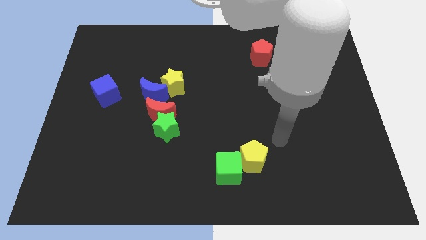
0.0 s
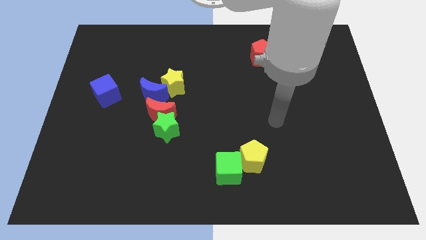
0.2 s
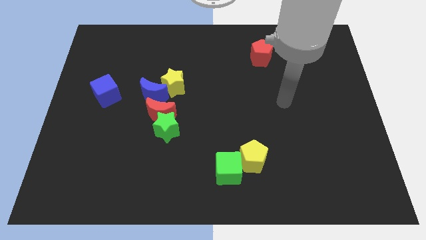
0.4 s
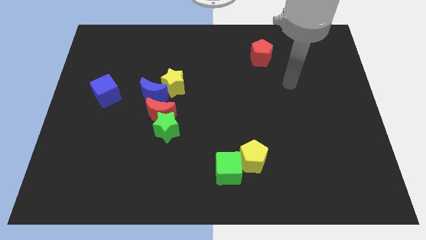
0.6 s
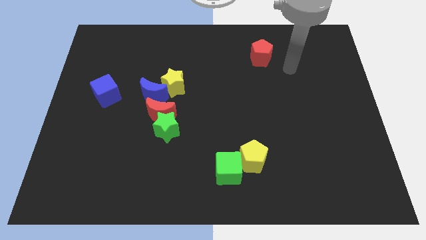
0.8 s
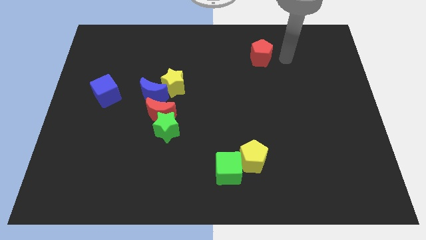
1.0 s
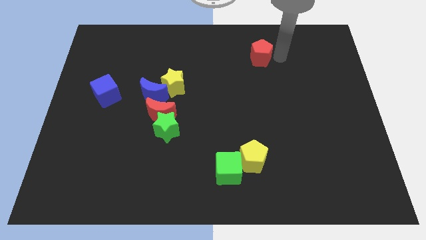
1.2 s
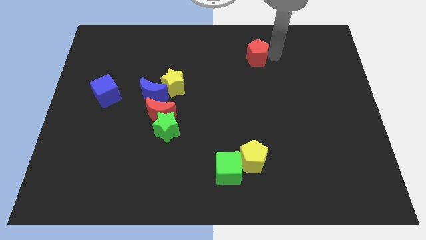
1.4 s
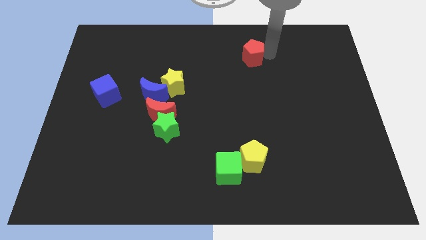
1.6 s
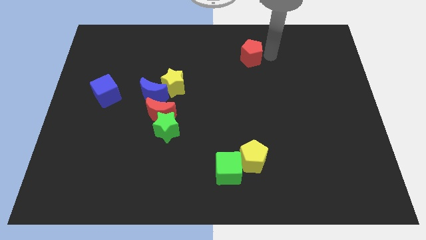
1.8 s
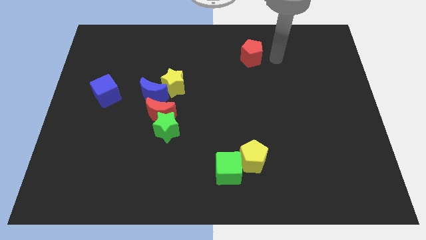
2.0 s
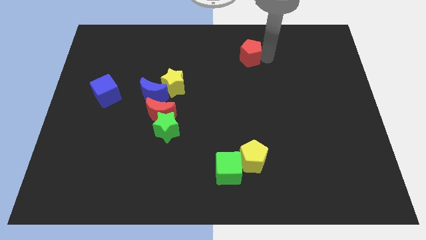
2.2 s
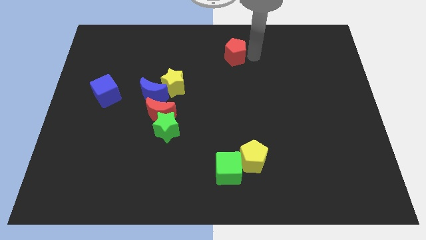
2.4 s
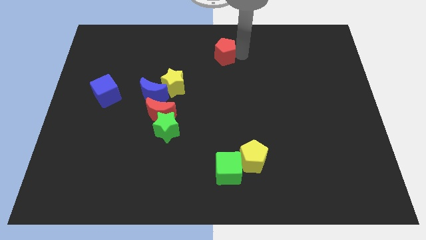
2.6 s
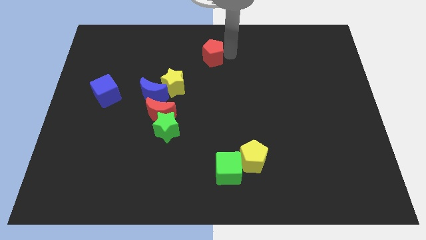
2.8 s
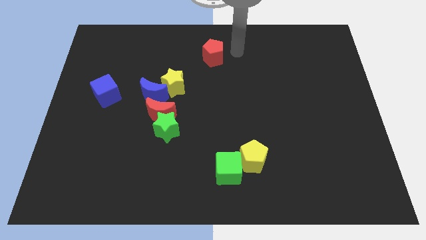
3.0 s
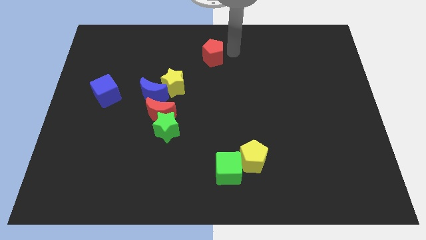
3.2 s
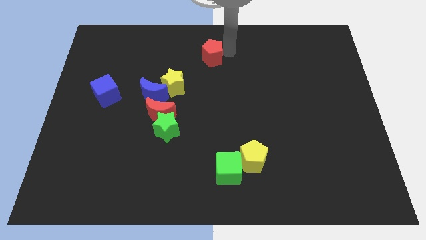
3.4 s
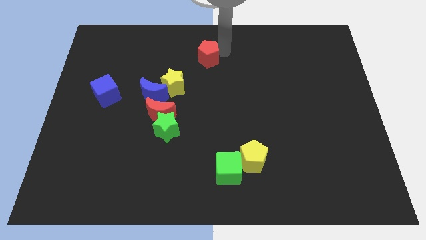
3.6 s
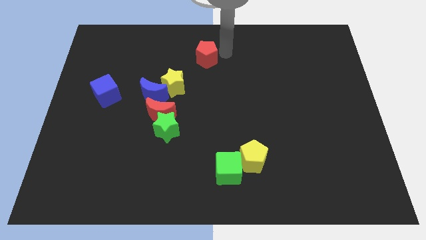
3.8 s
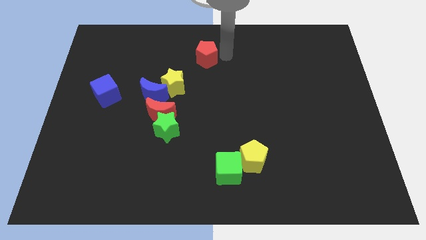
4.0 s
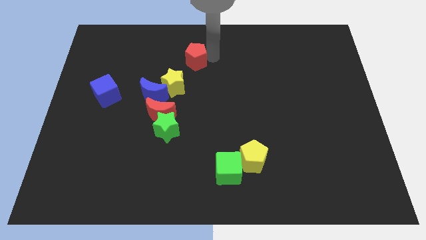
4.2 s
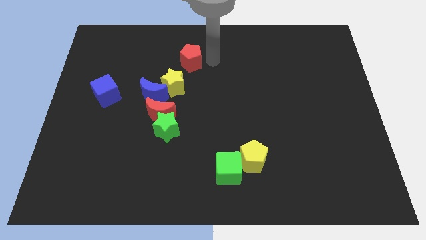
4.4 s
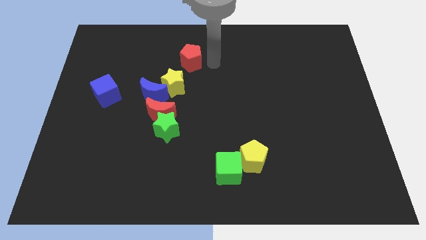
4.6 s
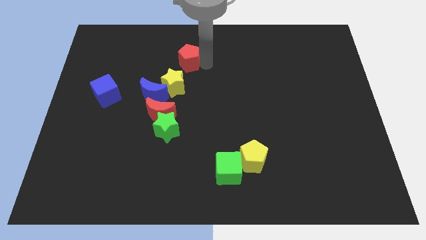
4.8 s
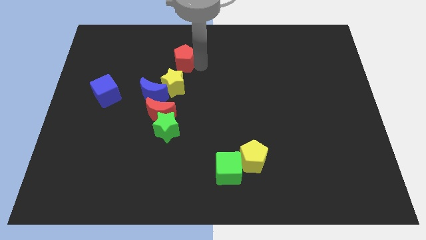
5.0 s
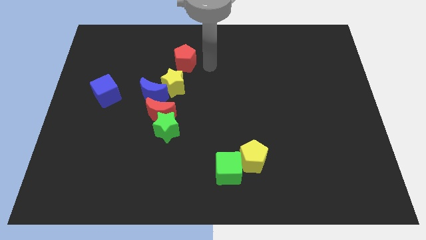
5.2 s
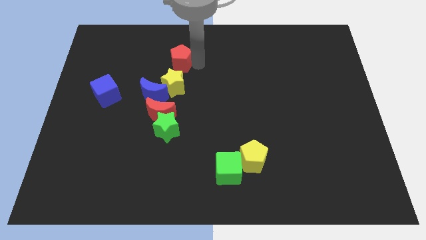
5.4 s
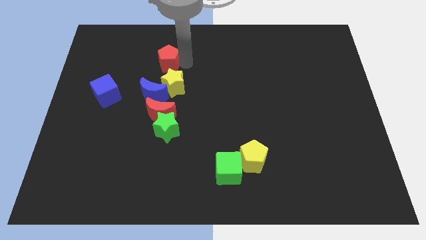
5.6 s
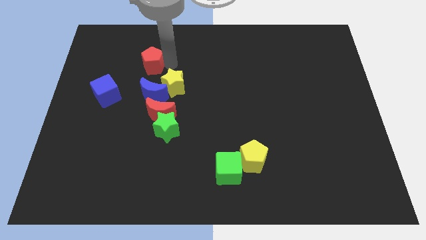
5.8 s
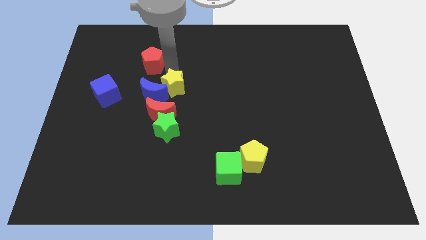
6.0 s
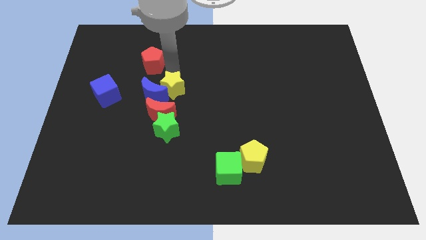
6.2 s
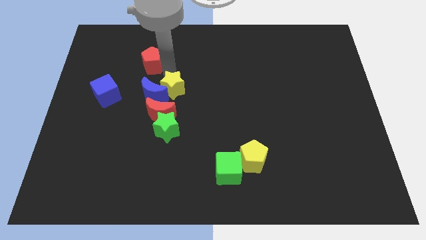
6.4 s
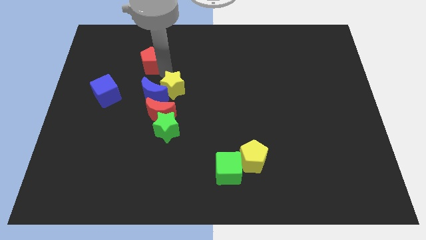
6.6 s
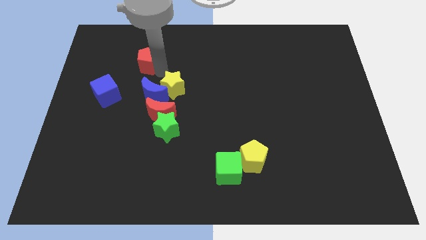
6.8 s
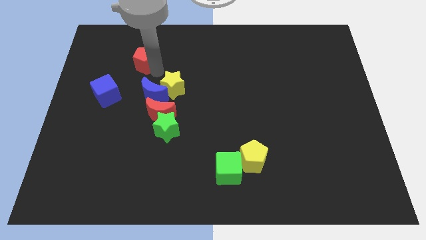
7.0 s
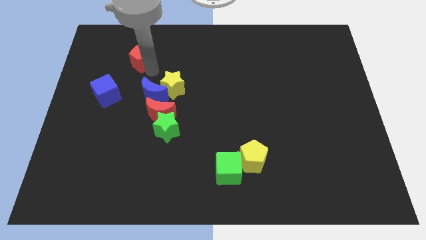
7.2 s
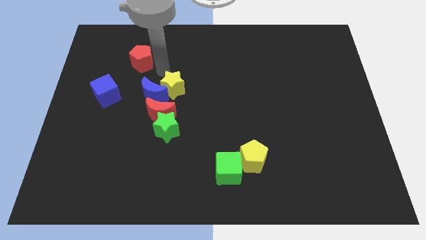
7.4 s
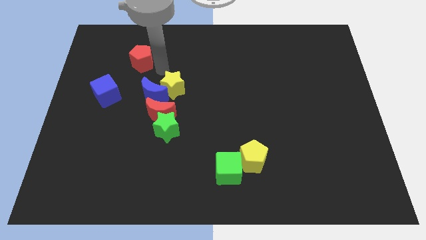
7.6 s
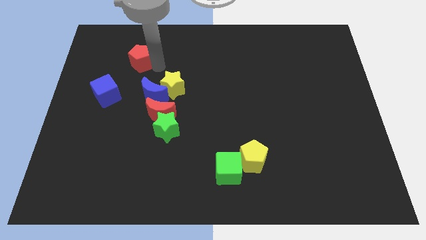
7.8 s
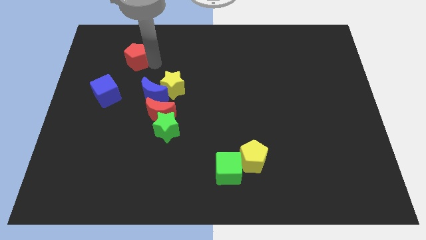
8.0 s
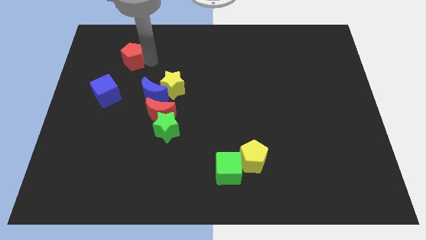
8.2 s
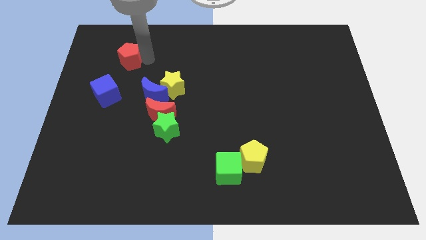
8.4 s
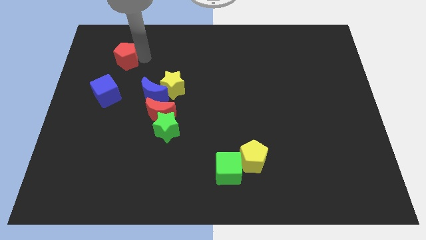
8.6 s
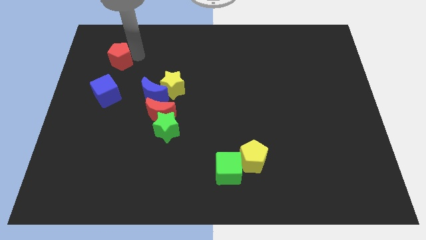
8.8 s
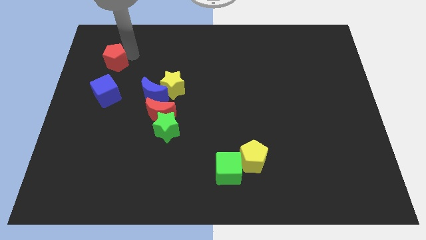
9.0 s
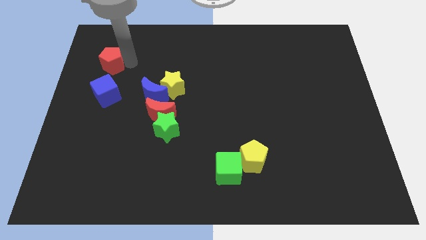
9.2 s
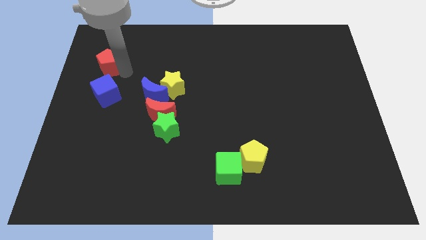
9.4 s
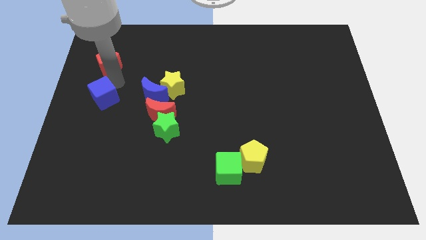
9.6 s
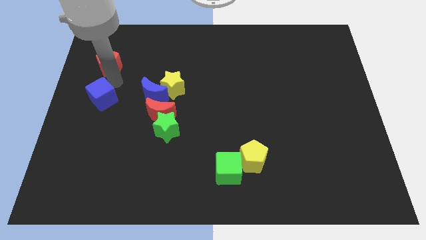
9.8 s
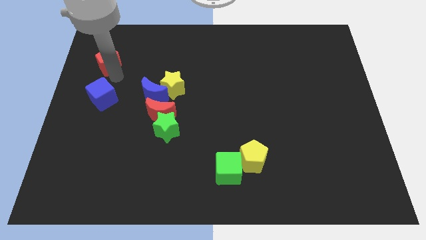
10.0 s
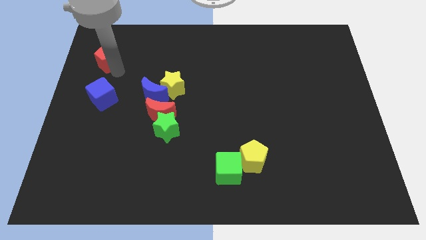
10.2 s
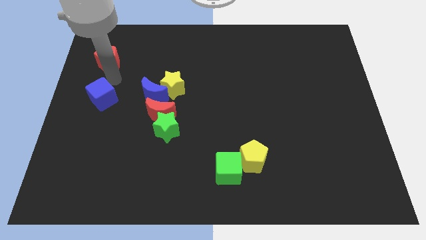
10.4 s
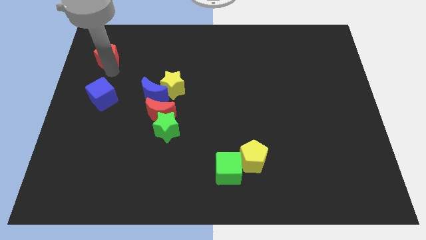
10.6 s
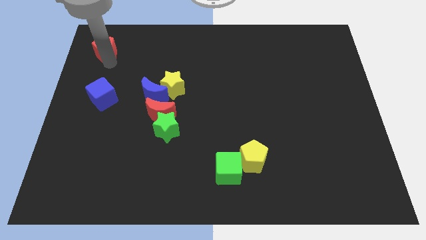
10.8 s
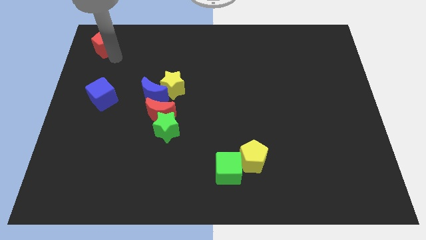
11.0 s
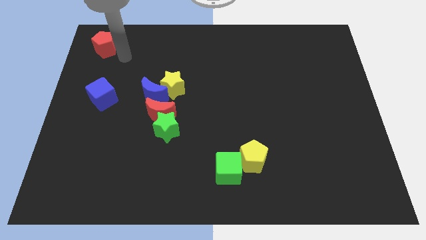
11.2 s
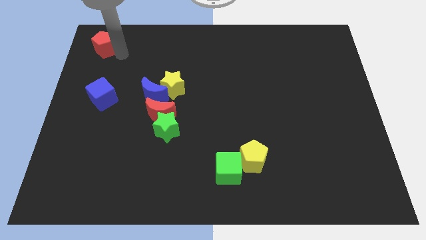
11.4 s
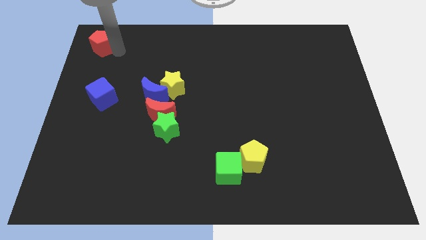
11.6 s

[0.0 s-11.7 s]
move the red pentagon to the top left of the board

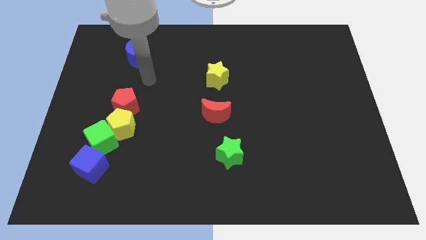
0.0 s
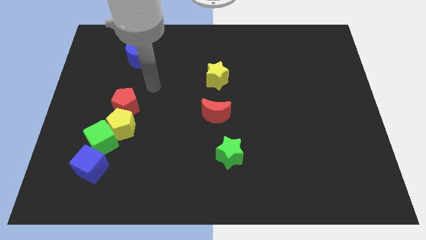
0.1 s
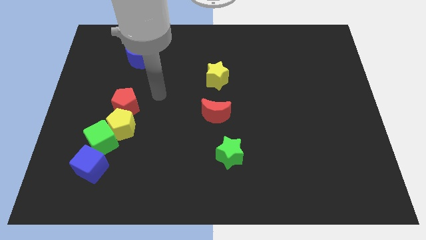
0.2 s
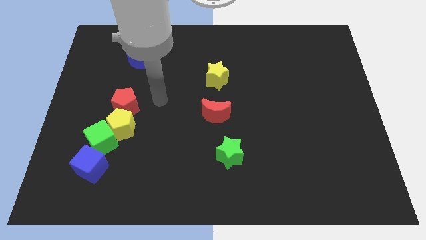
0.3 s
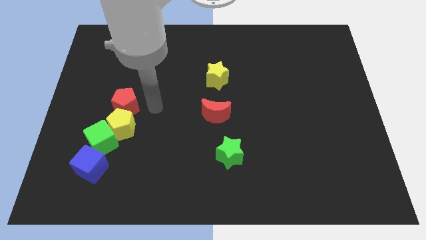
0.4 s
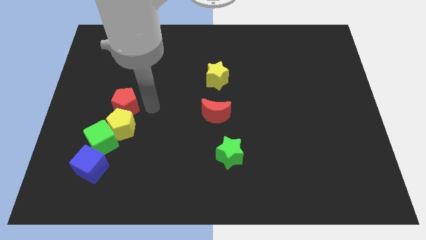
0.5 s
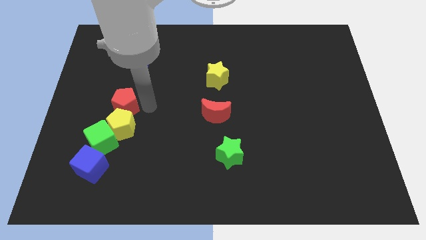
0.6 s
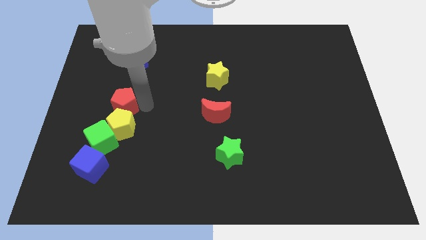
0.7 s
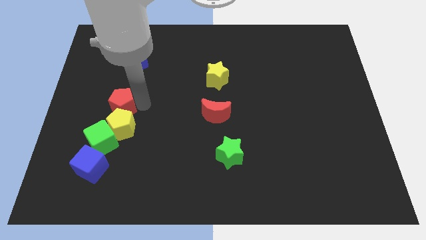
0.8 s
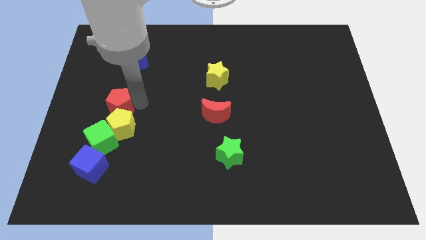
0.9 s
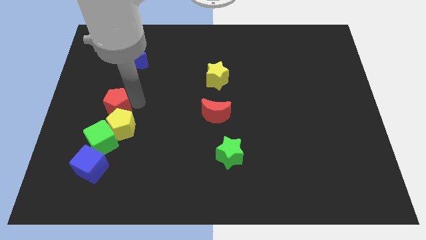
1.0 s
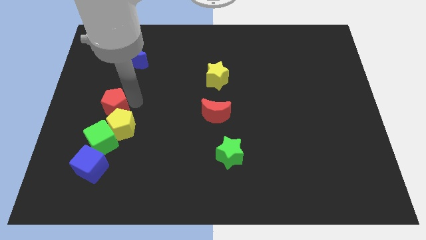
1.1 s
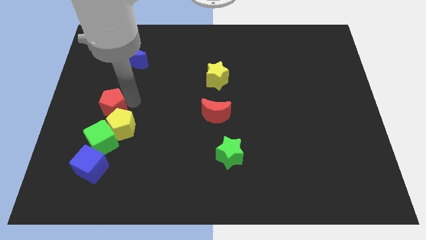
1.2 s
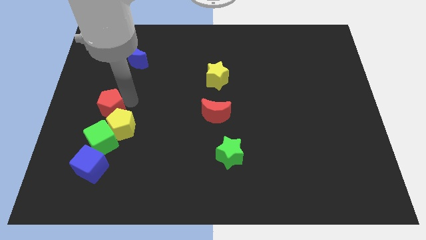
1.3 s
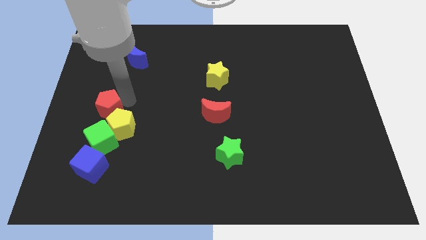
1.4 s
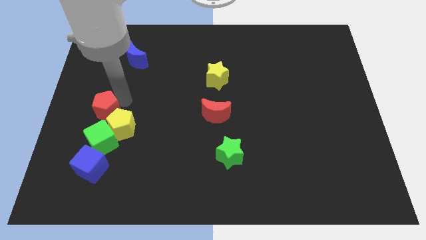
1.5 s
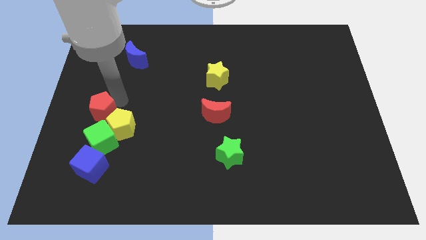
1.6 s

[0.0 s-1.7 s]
move the red pentagon to the center left
